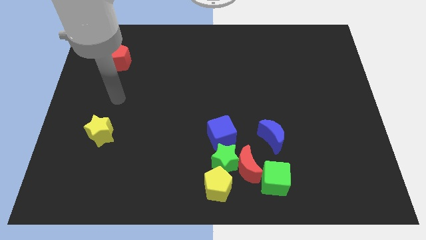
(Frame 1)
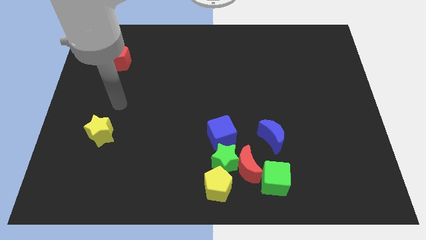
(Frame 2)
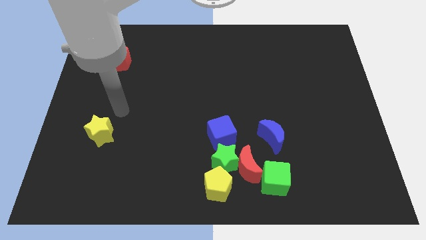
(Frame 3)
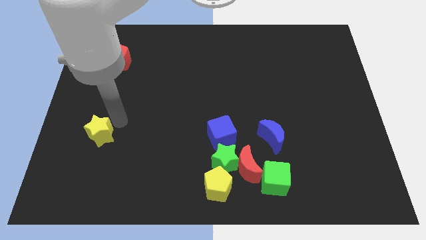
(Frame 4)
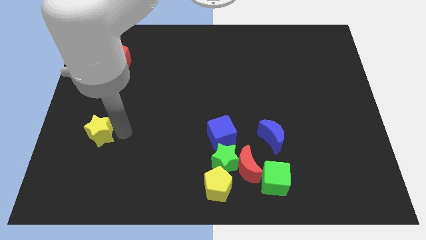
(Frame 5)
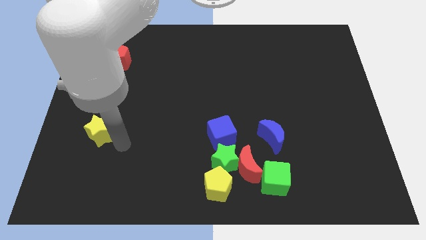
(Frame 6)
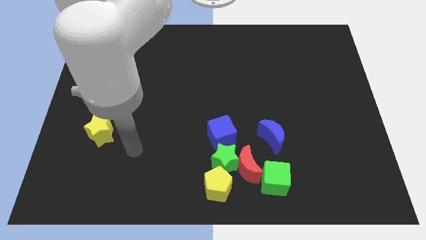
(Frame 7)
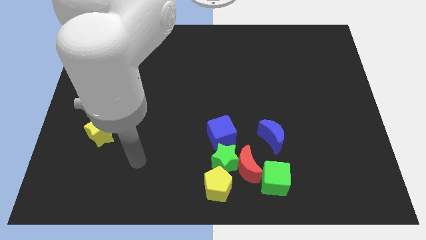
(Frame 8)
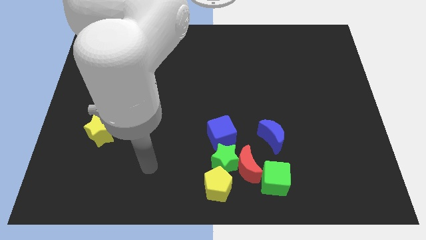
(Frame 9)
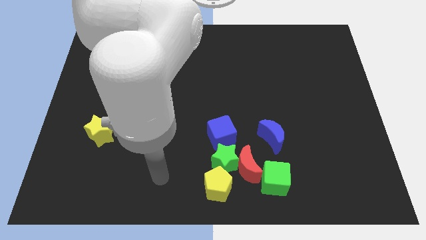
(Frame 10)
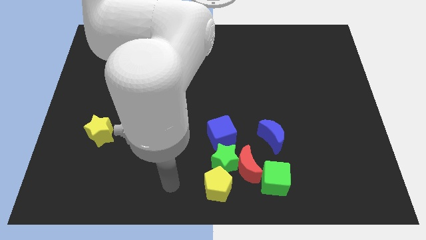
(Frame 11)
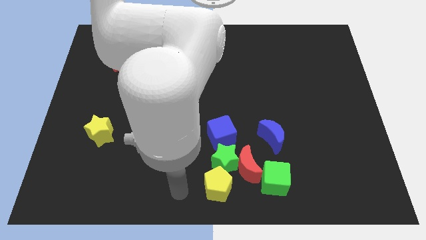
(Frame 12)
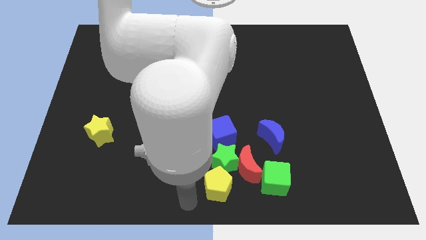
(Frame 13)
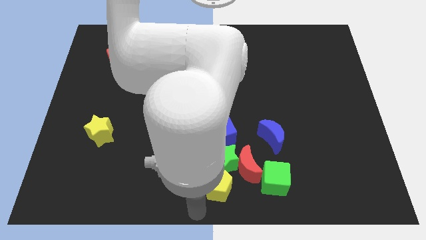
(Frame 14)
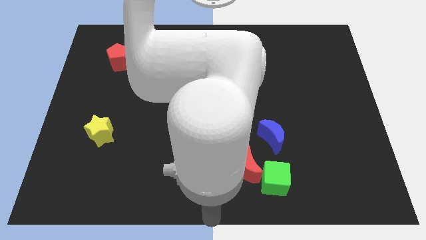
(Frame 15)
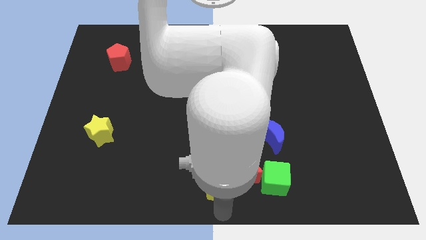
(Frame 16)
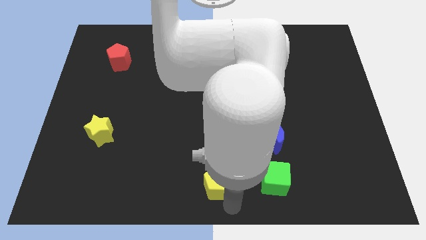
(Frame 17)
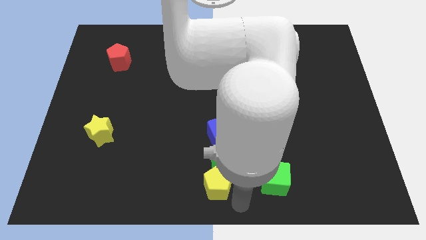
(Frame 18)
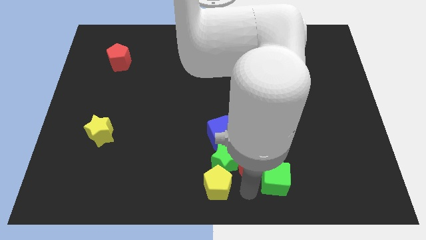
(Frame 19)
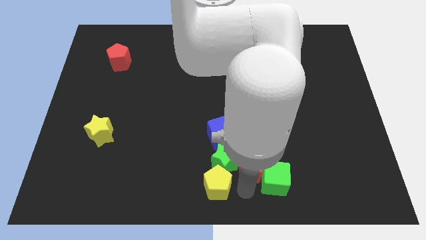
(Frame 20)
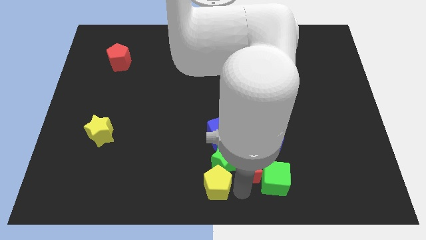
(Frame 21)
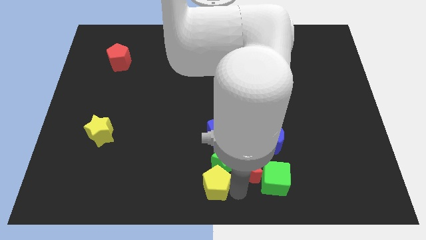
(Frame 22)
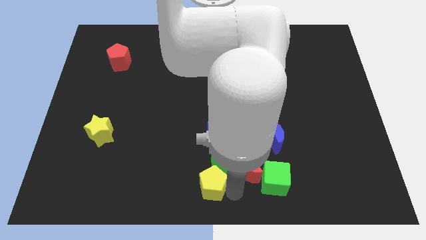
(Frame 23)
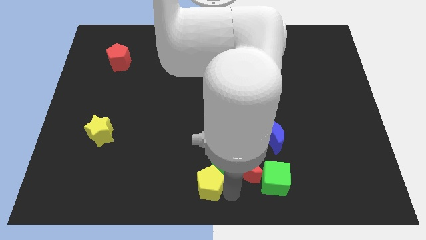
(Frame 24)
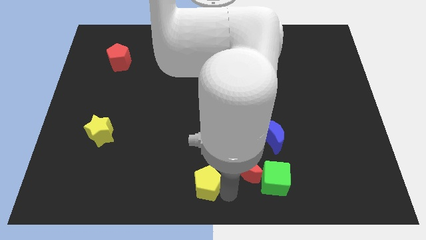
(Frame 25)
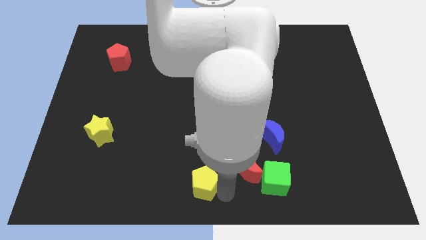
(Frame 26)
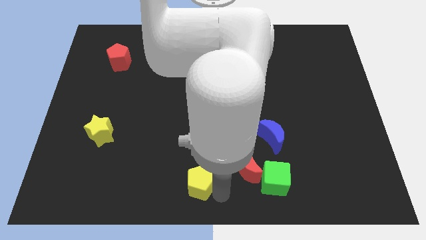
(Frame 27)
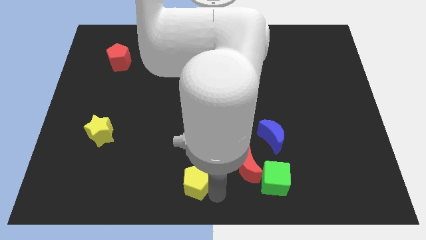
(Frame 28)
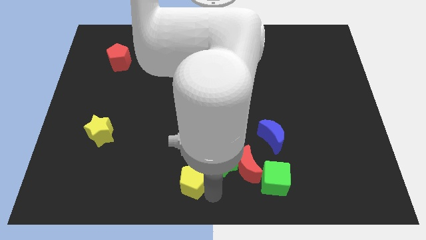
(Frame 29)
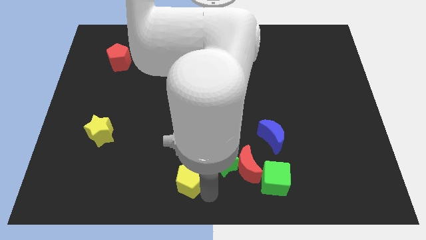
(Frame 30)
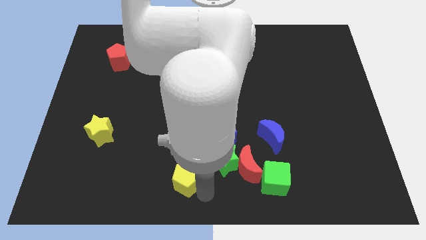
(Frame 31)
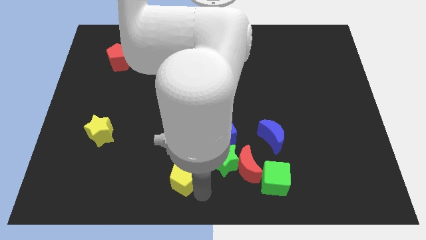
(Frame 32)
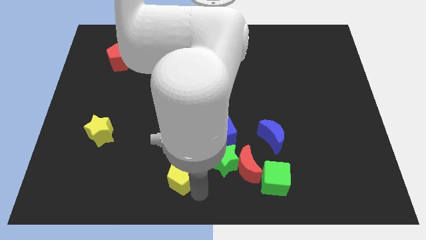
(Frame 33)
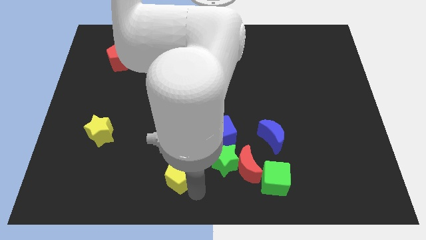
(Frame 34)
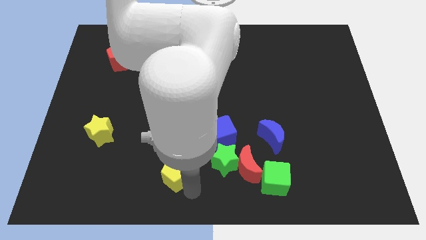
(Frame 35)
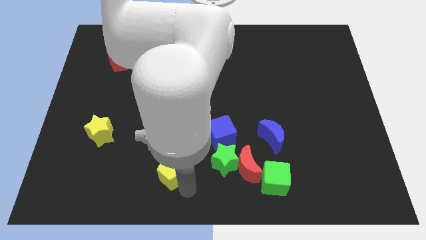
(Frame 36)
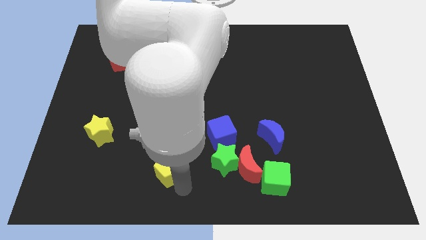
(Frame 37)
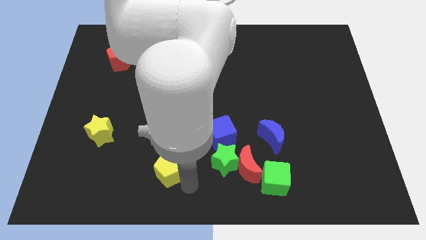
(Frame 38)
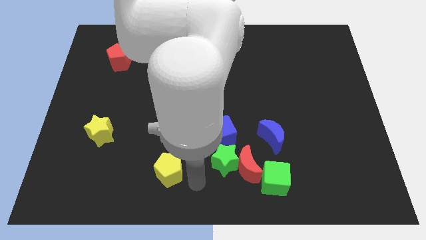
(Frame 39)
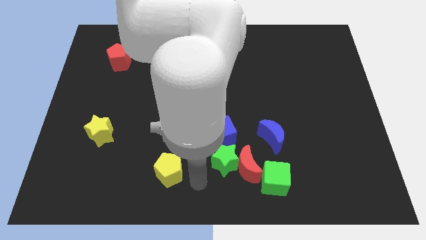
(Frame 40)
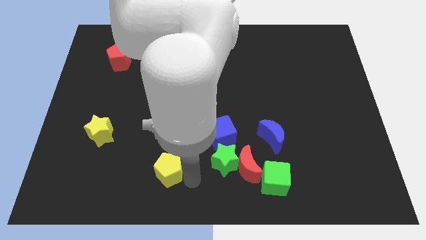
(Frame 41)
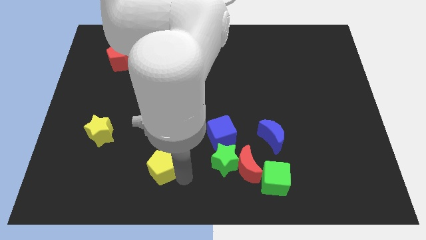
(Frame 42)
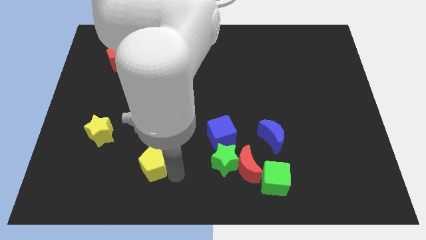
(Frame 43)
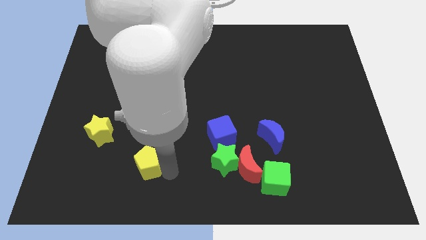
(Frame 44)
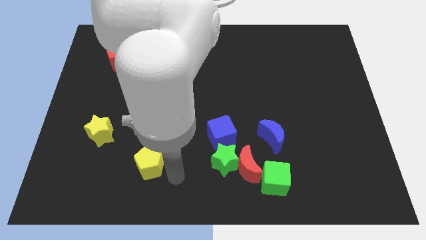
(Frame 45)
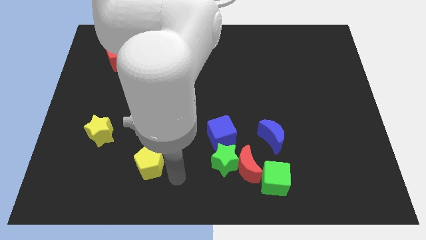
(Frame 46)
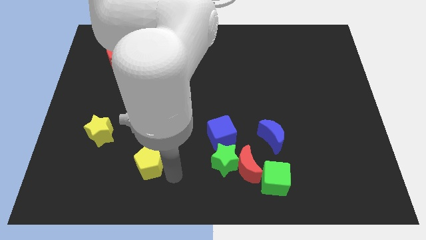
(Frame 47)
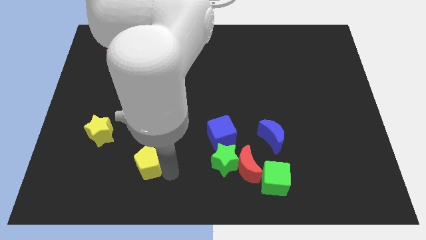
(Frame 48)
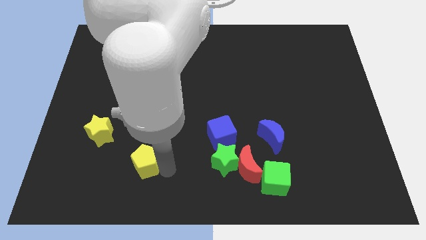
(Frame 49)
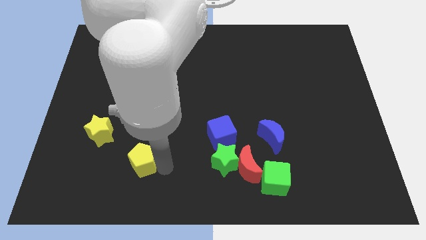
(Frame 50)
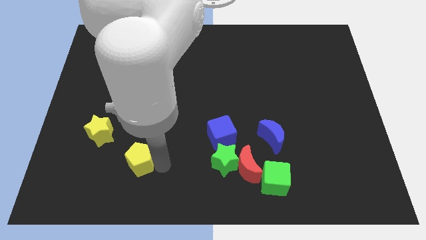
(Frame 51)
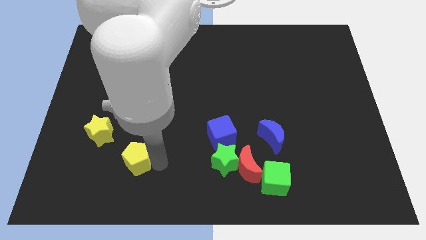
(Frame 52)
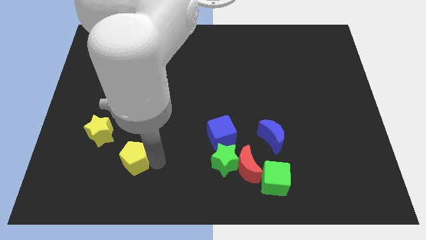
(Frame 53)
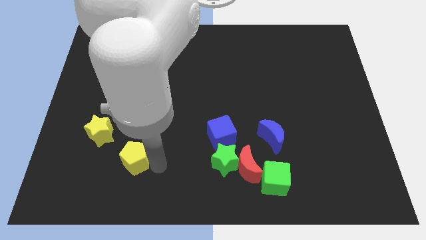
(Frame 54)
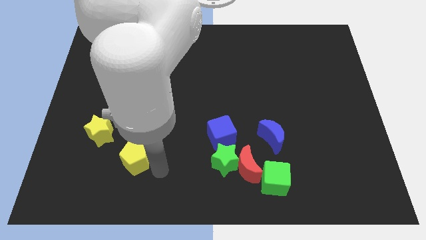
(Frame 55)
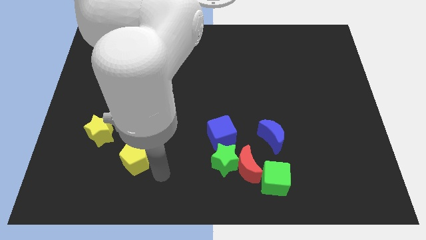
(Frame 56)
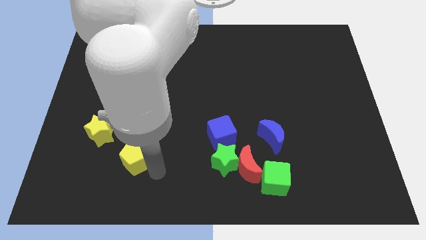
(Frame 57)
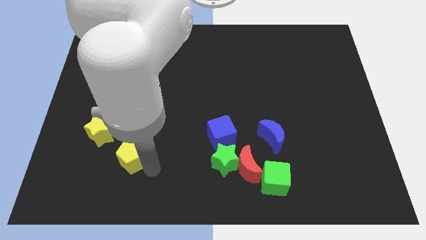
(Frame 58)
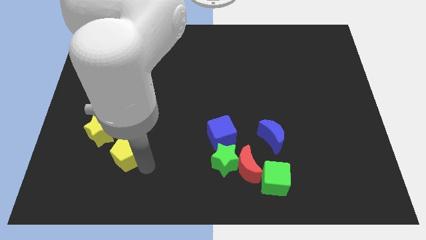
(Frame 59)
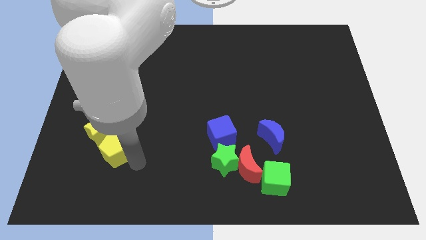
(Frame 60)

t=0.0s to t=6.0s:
put the yellow pentagon next to the yellow star

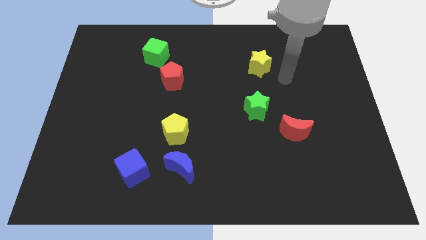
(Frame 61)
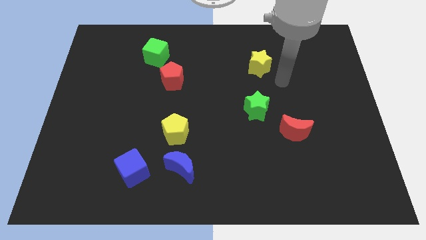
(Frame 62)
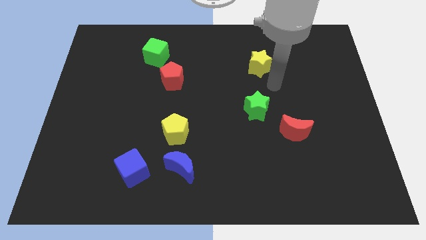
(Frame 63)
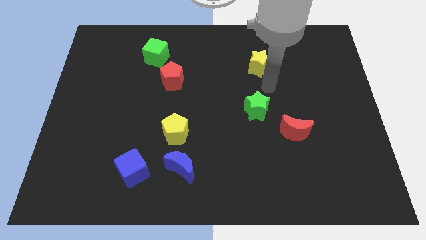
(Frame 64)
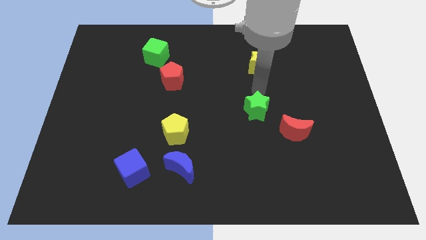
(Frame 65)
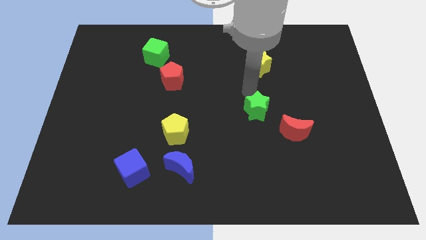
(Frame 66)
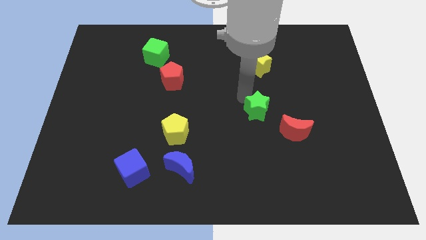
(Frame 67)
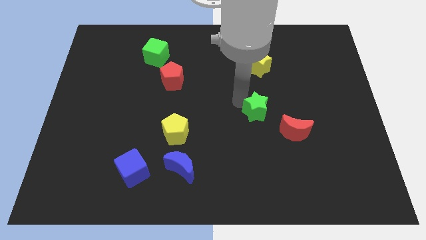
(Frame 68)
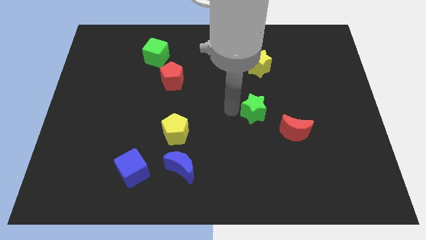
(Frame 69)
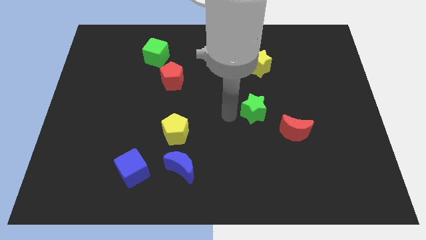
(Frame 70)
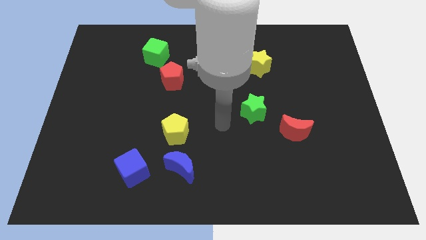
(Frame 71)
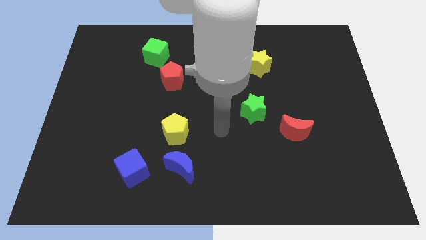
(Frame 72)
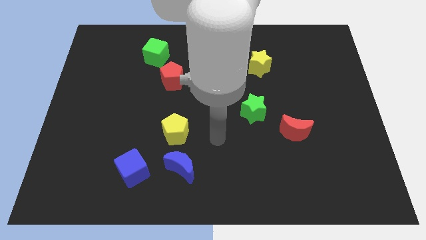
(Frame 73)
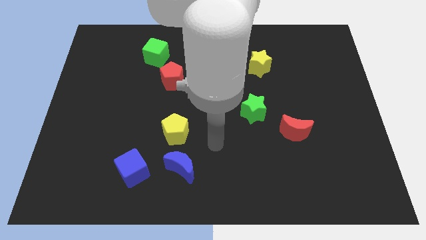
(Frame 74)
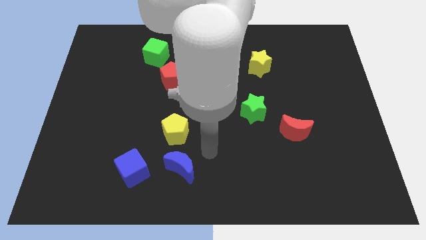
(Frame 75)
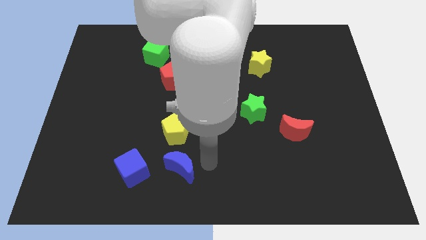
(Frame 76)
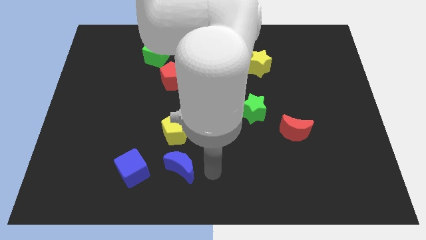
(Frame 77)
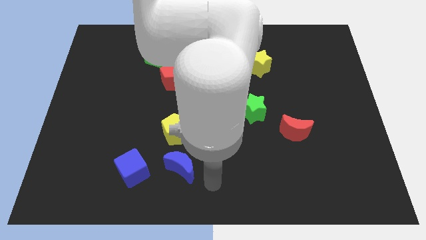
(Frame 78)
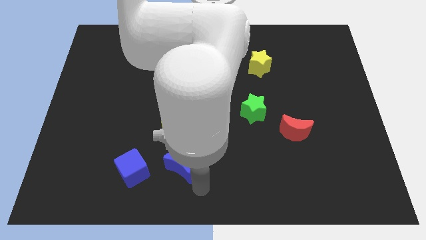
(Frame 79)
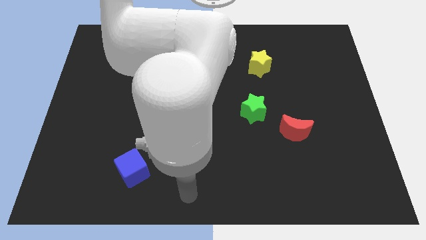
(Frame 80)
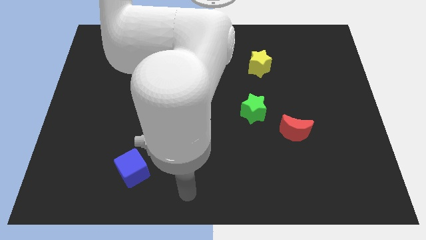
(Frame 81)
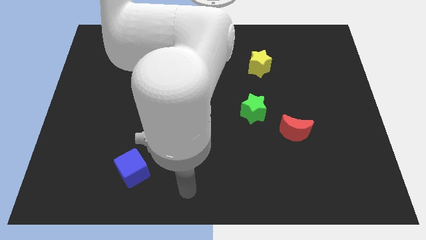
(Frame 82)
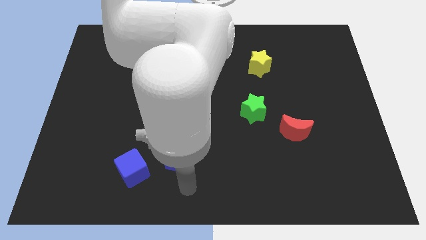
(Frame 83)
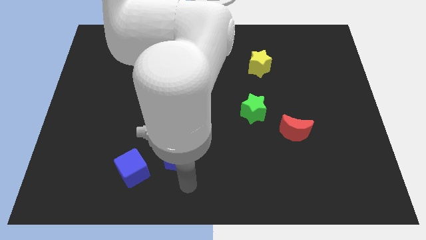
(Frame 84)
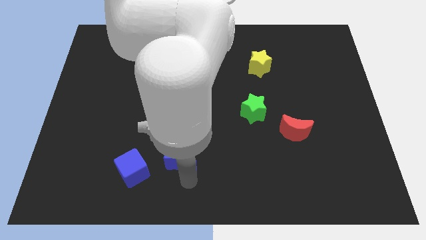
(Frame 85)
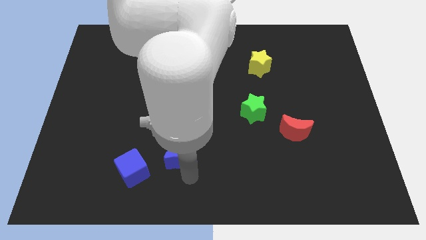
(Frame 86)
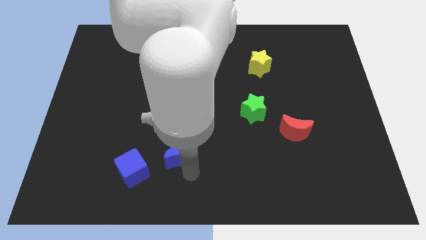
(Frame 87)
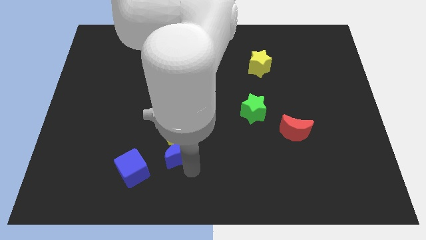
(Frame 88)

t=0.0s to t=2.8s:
put the blue moon next to the yellow pentagon
